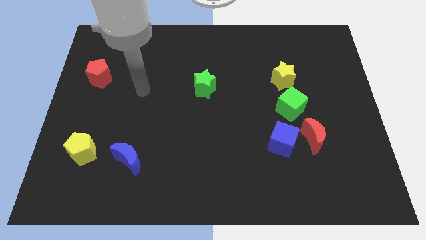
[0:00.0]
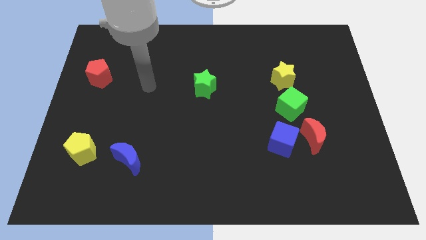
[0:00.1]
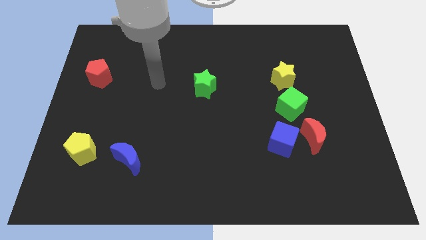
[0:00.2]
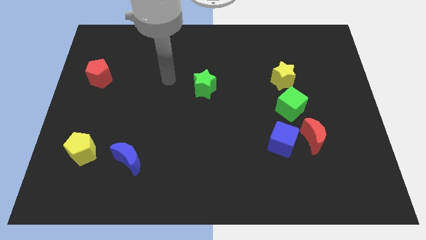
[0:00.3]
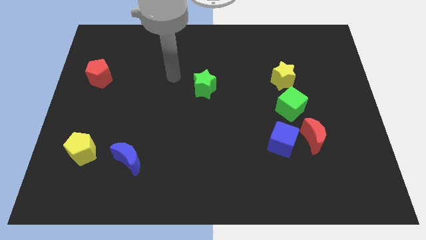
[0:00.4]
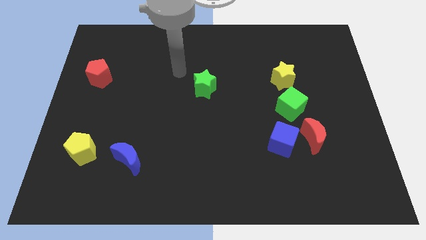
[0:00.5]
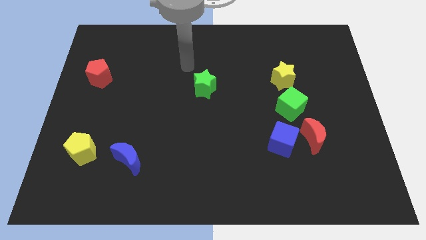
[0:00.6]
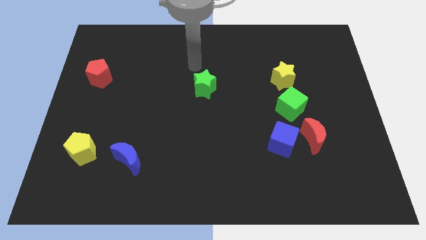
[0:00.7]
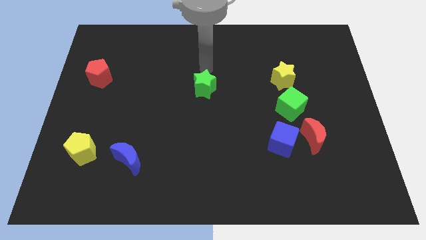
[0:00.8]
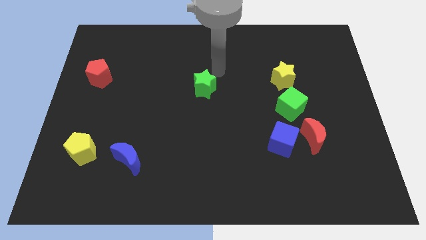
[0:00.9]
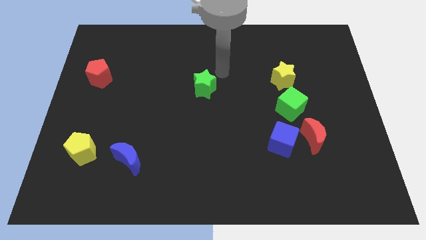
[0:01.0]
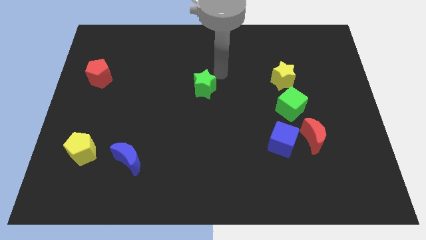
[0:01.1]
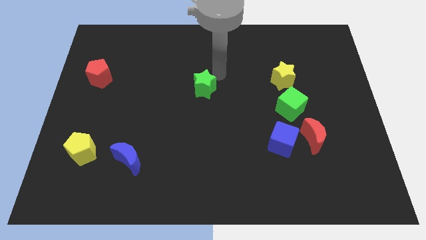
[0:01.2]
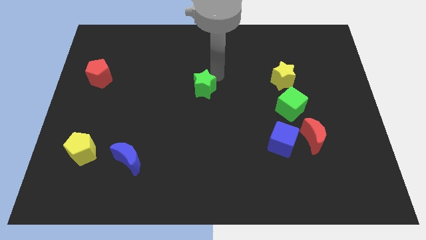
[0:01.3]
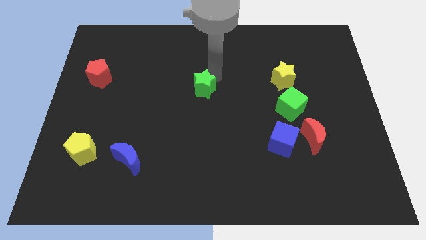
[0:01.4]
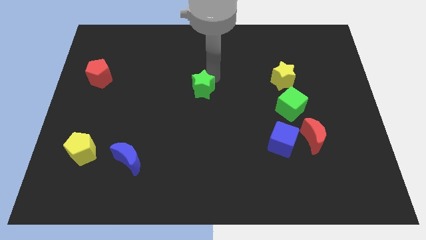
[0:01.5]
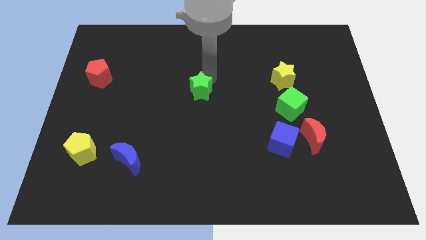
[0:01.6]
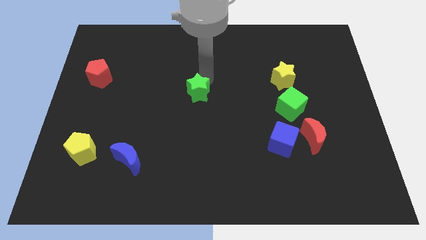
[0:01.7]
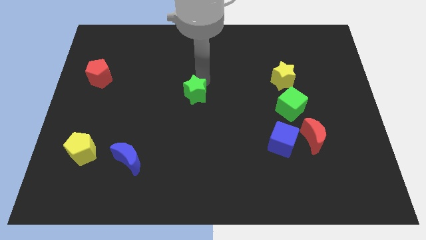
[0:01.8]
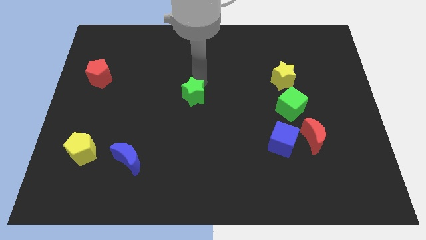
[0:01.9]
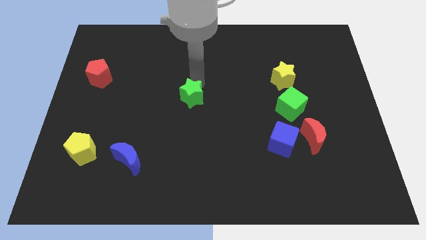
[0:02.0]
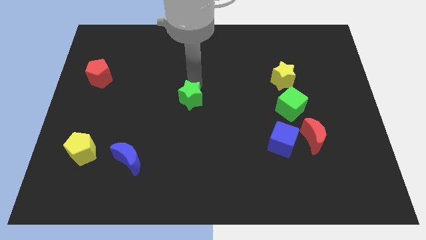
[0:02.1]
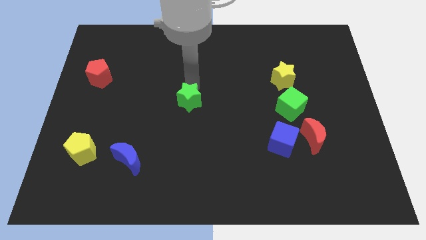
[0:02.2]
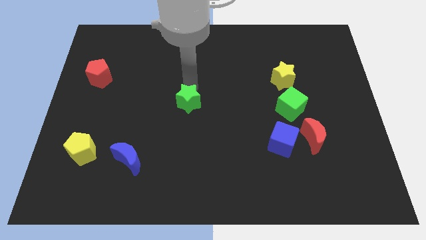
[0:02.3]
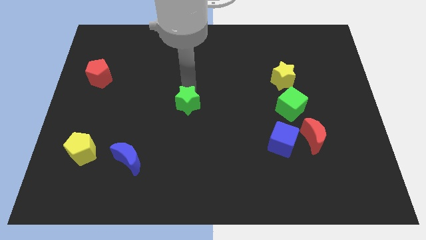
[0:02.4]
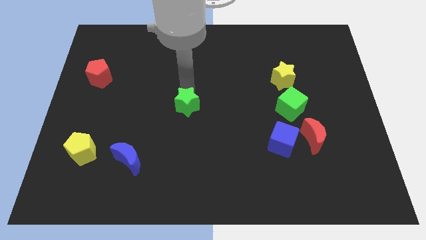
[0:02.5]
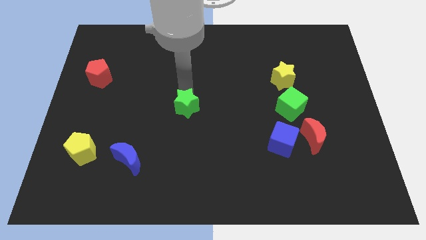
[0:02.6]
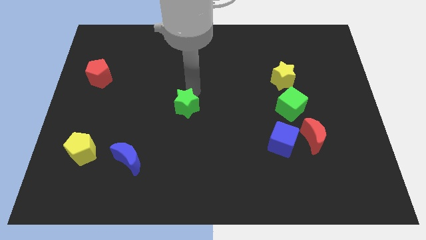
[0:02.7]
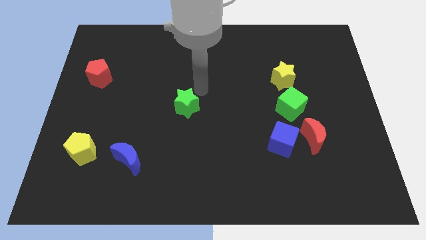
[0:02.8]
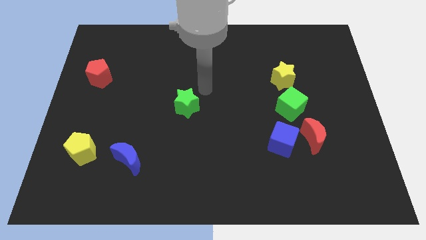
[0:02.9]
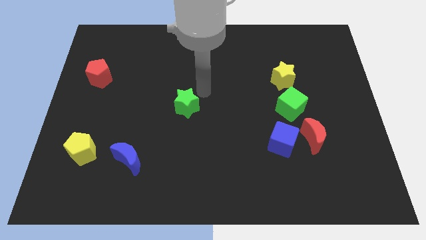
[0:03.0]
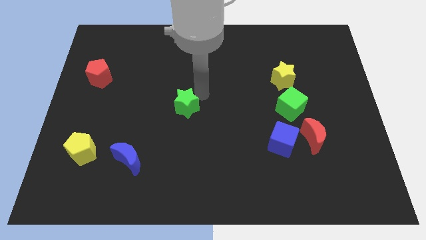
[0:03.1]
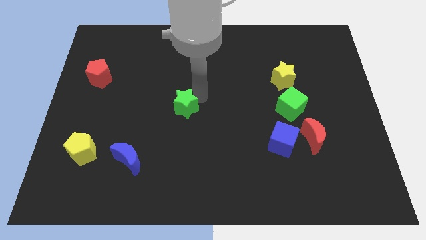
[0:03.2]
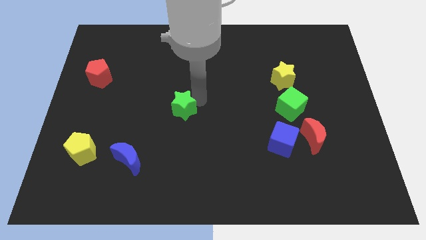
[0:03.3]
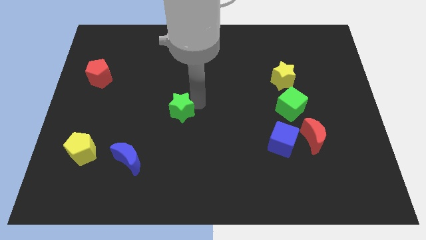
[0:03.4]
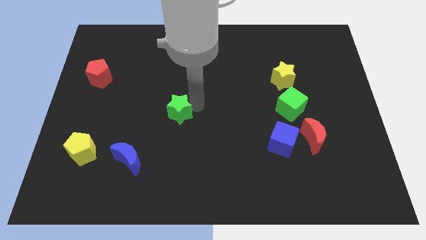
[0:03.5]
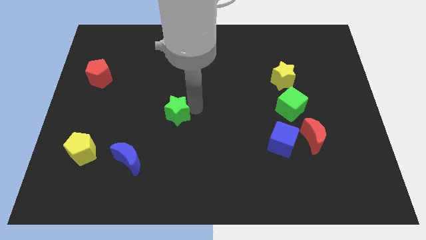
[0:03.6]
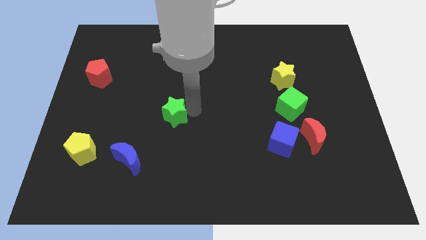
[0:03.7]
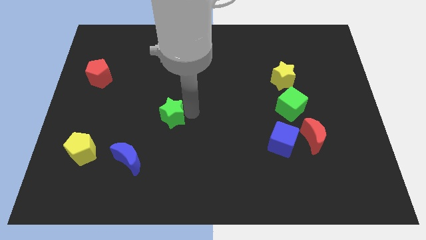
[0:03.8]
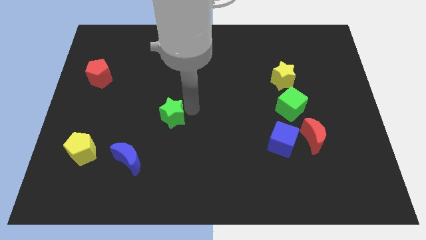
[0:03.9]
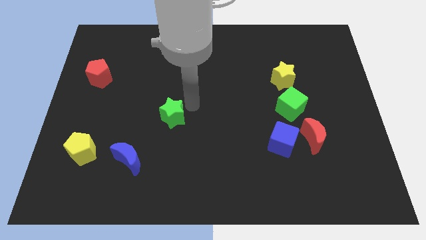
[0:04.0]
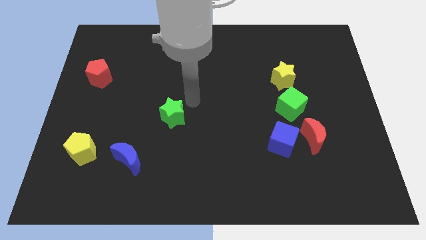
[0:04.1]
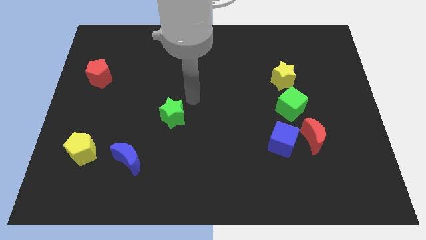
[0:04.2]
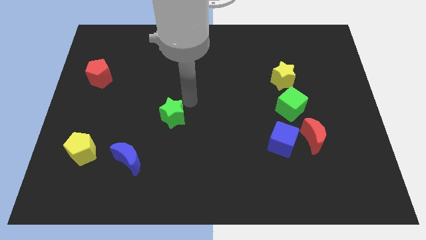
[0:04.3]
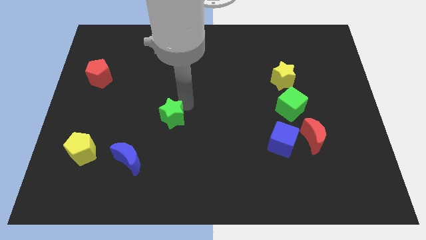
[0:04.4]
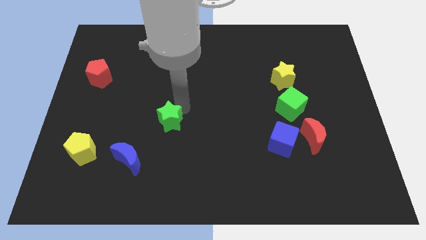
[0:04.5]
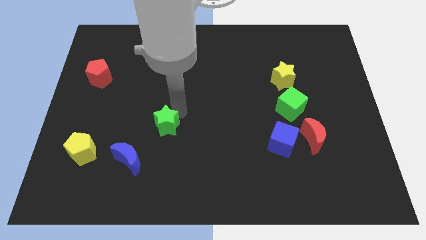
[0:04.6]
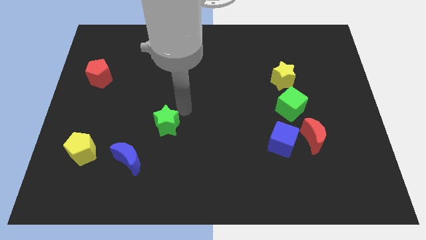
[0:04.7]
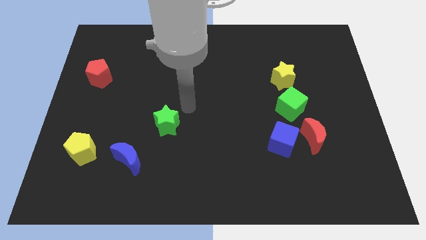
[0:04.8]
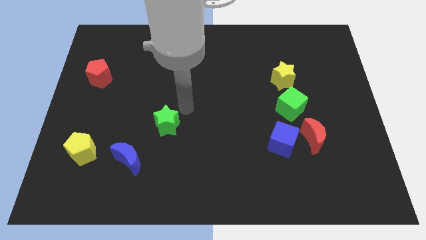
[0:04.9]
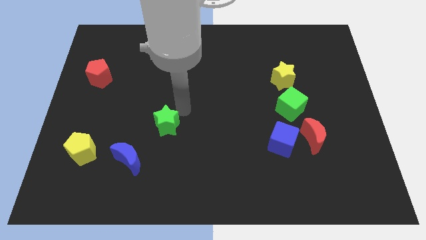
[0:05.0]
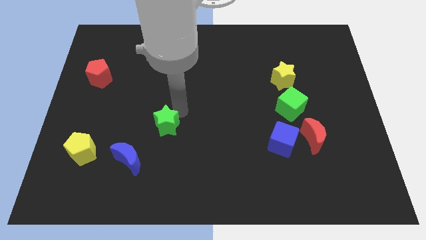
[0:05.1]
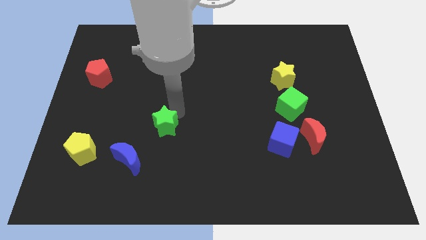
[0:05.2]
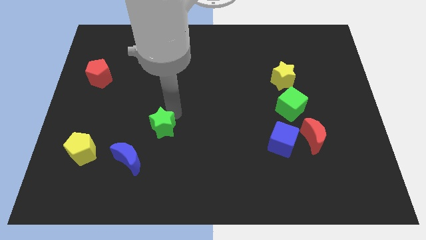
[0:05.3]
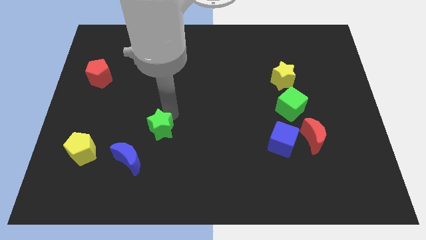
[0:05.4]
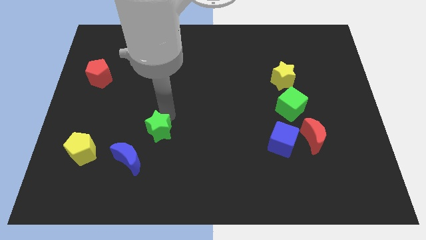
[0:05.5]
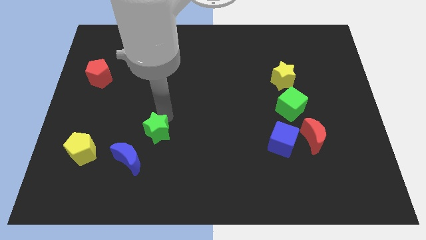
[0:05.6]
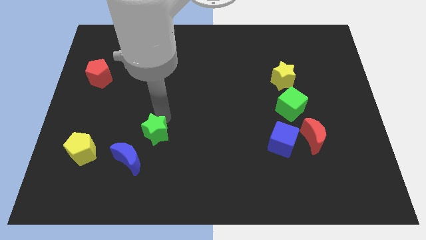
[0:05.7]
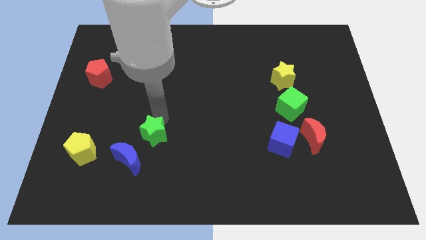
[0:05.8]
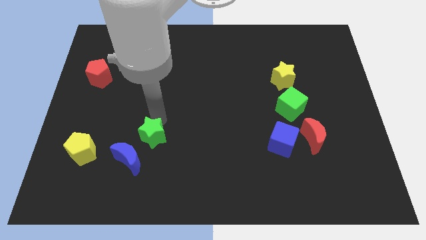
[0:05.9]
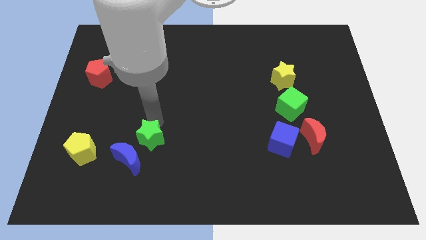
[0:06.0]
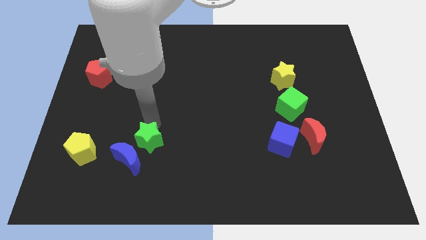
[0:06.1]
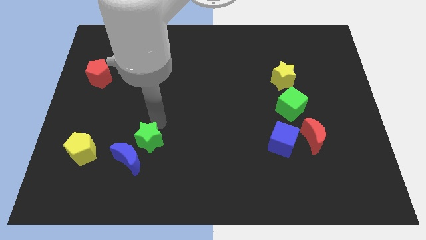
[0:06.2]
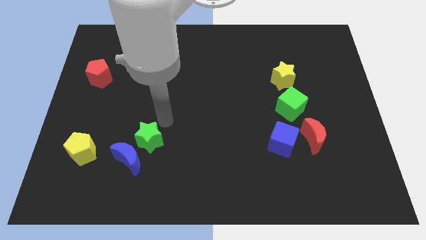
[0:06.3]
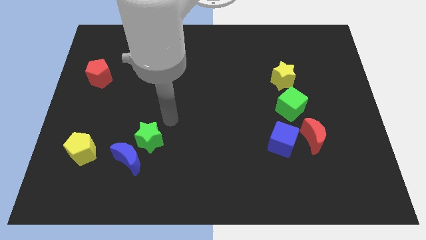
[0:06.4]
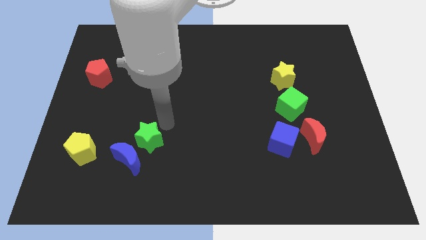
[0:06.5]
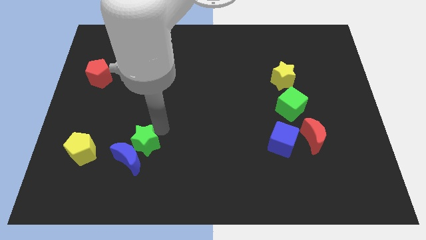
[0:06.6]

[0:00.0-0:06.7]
move the green star next to the blue moon

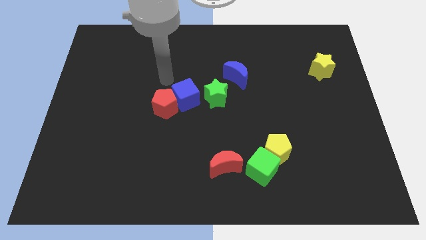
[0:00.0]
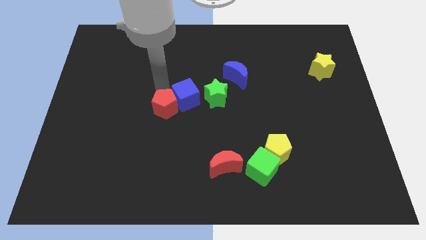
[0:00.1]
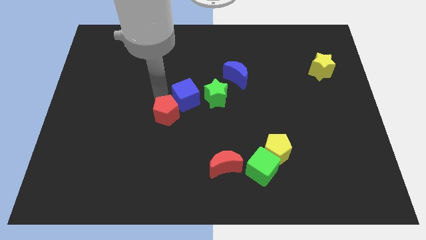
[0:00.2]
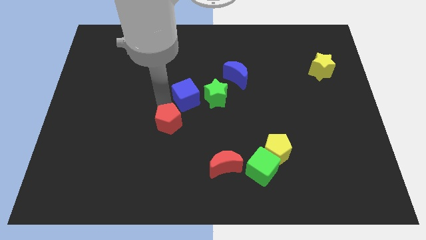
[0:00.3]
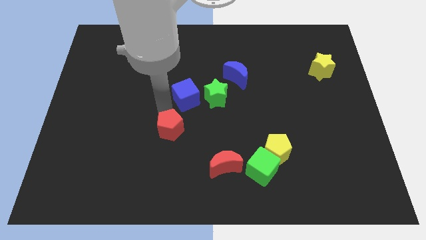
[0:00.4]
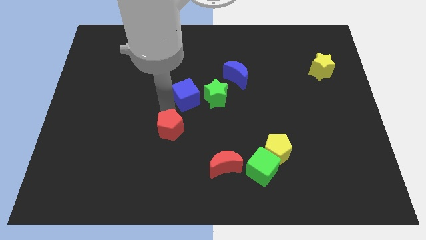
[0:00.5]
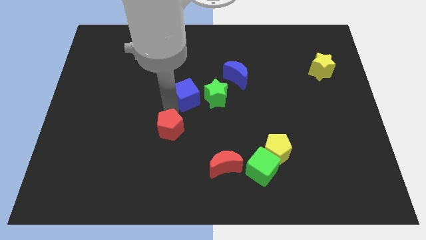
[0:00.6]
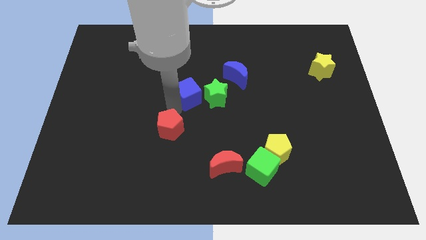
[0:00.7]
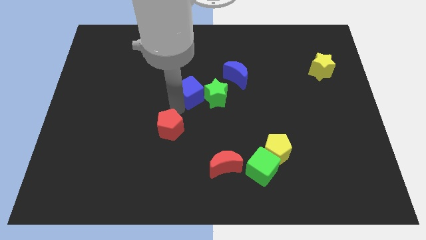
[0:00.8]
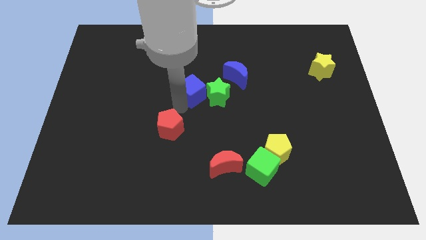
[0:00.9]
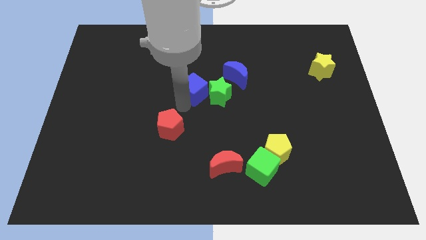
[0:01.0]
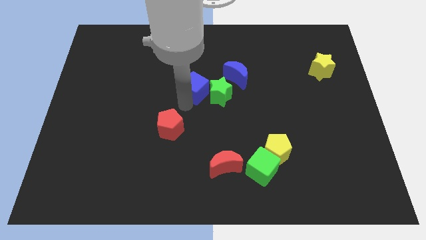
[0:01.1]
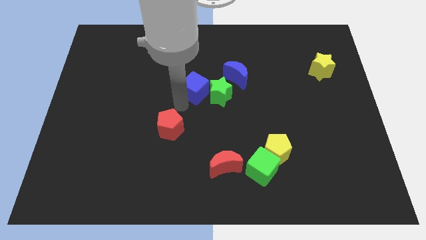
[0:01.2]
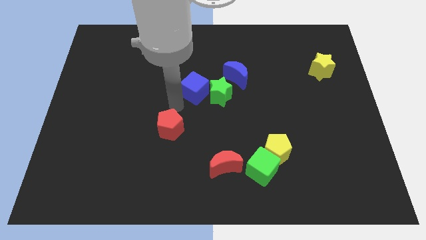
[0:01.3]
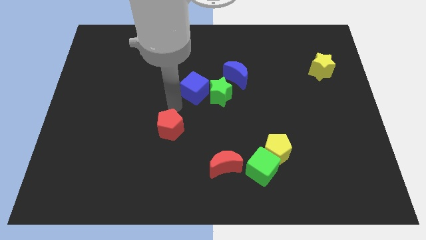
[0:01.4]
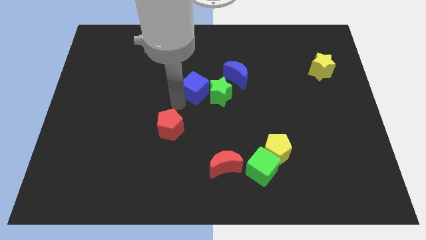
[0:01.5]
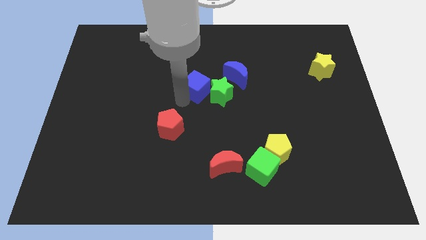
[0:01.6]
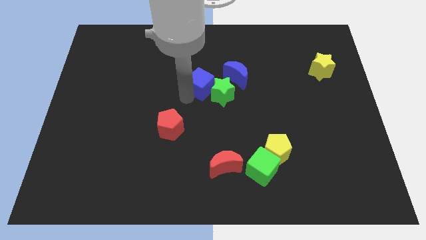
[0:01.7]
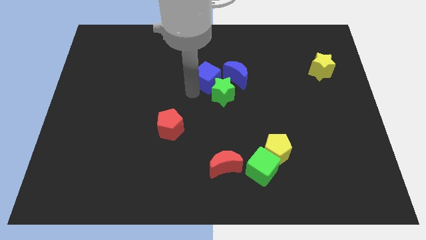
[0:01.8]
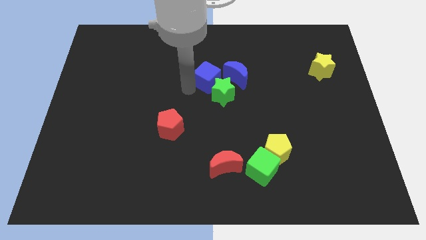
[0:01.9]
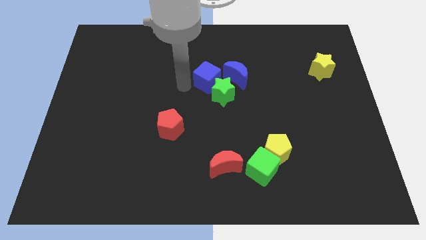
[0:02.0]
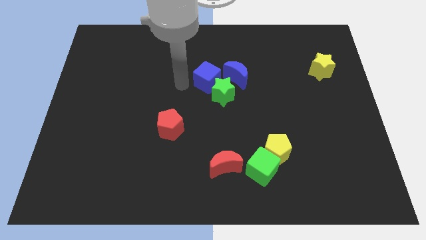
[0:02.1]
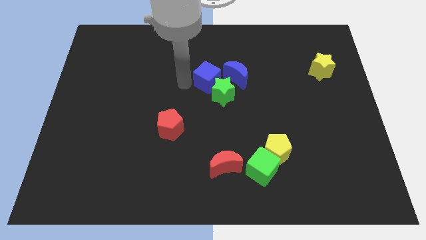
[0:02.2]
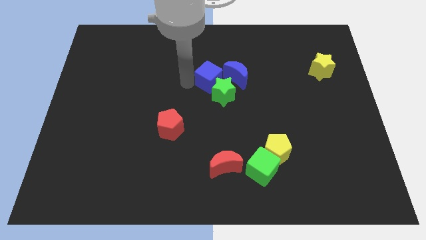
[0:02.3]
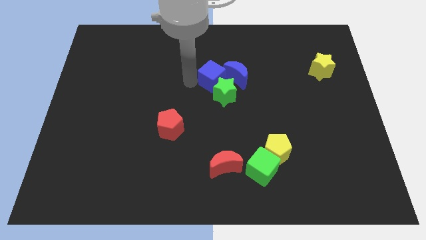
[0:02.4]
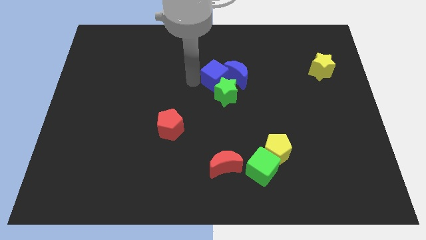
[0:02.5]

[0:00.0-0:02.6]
put the blue cube to the blue moon
